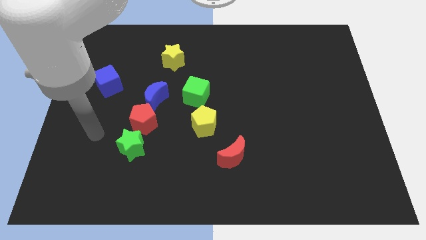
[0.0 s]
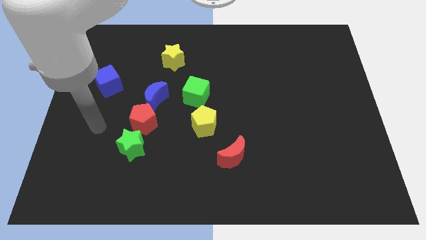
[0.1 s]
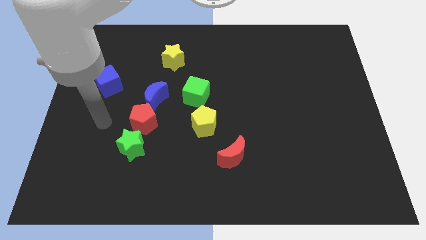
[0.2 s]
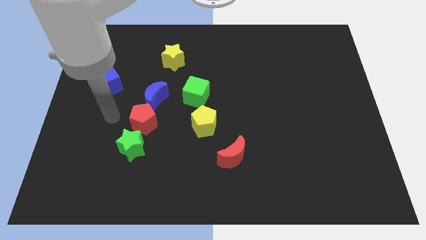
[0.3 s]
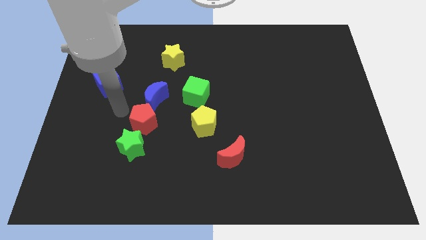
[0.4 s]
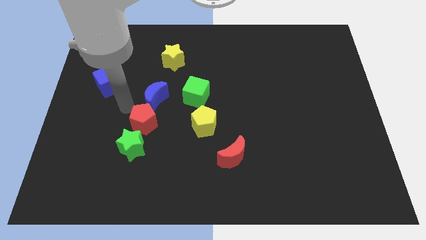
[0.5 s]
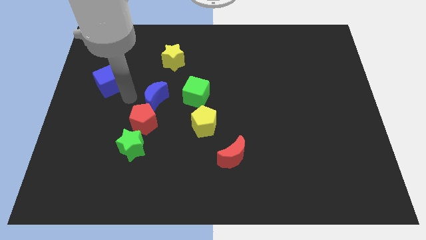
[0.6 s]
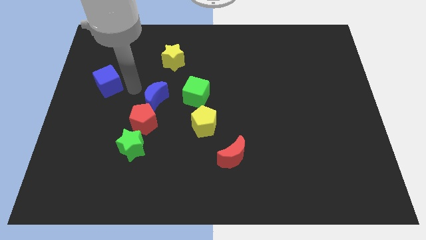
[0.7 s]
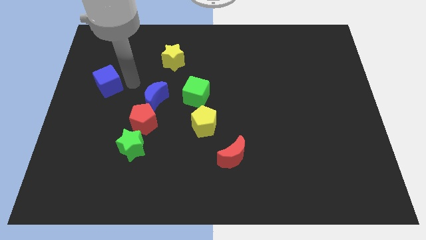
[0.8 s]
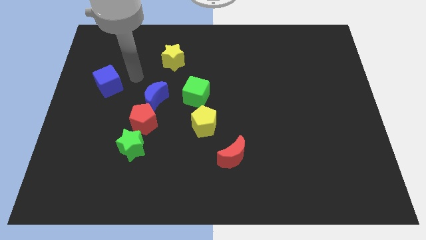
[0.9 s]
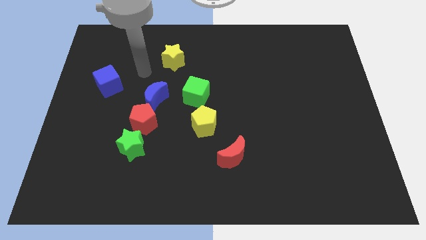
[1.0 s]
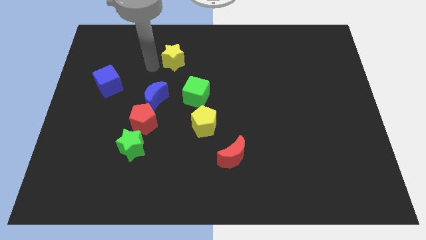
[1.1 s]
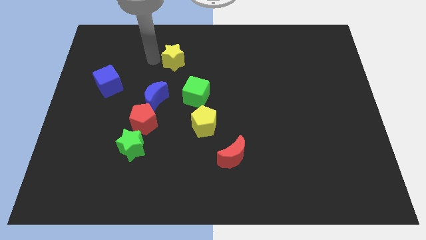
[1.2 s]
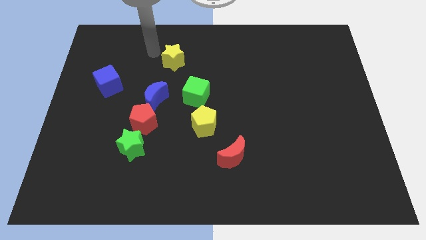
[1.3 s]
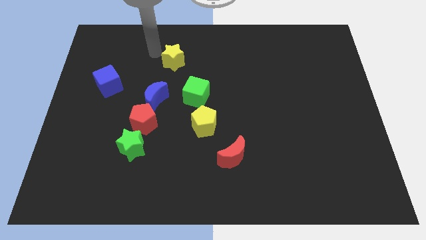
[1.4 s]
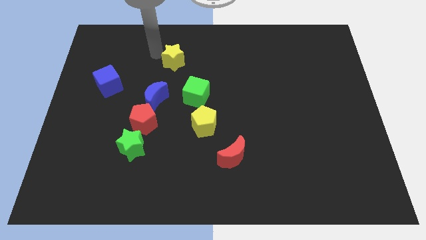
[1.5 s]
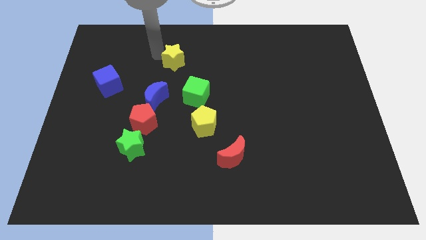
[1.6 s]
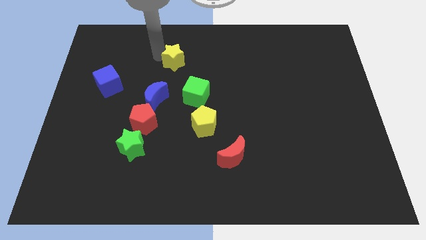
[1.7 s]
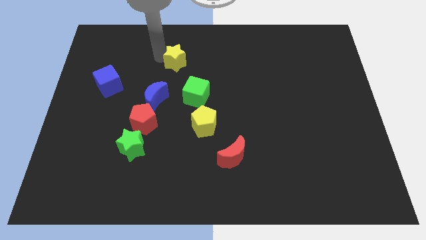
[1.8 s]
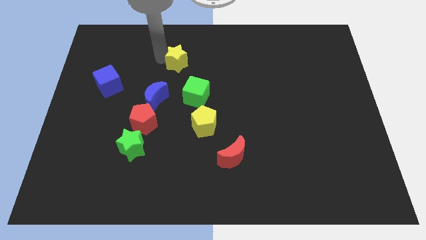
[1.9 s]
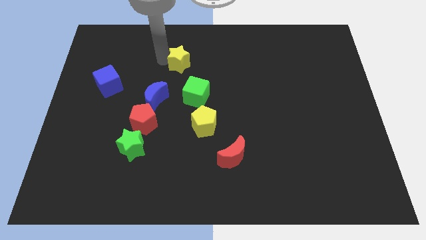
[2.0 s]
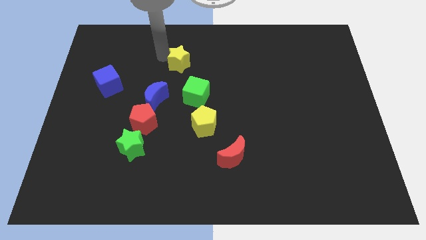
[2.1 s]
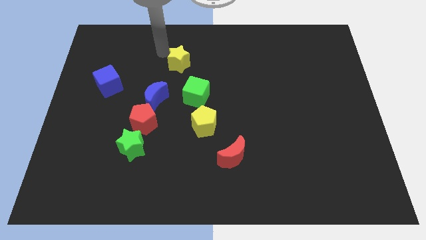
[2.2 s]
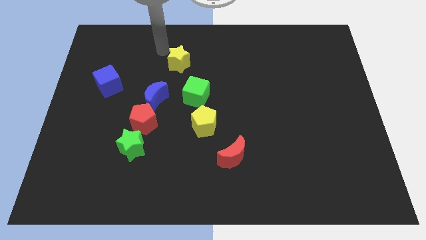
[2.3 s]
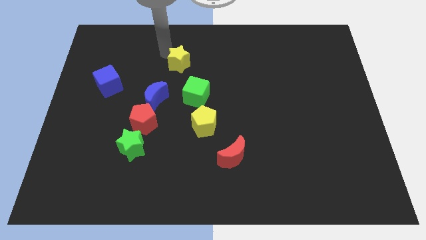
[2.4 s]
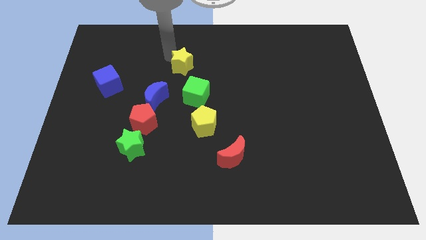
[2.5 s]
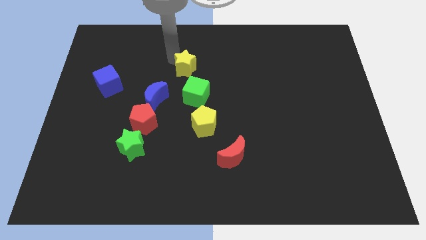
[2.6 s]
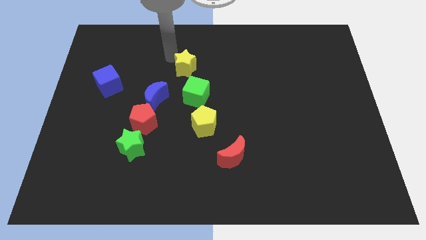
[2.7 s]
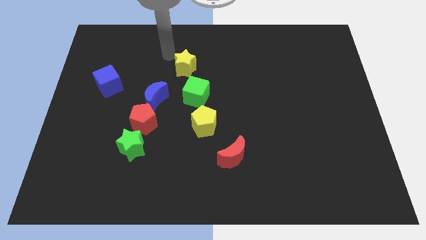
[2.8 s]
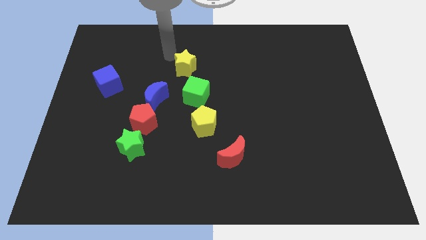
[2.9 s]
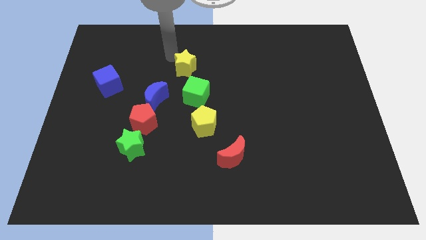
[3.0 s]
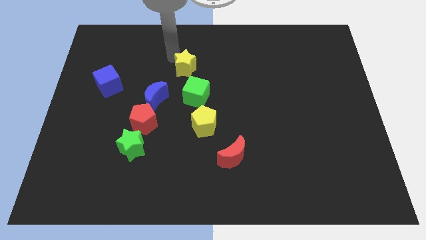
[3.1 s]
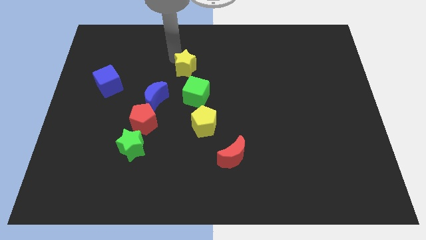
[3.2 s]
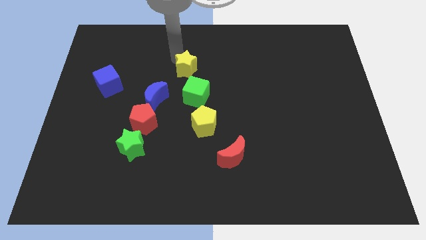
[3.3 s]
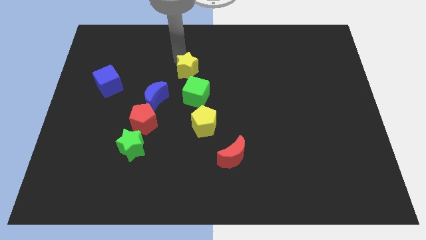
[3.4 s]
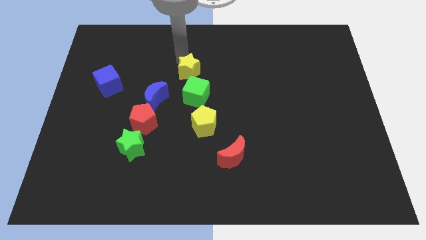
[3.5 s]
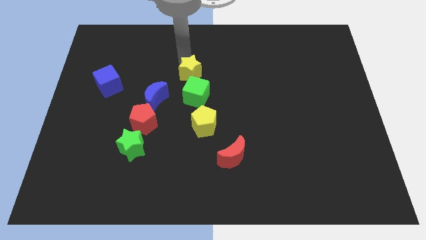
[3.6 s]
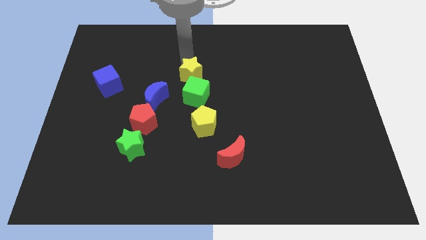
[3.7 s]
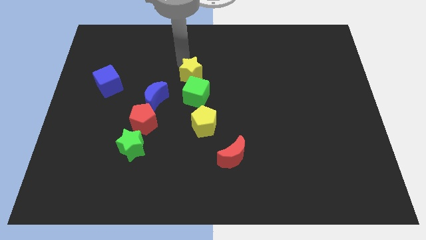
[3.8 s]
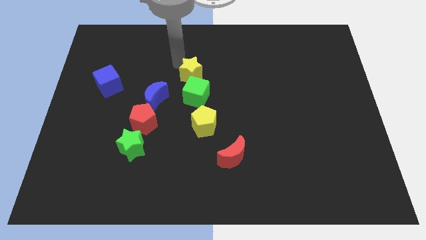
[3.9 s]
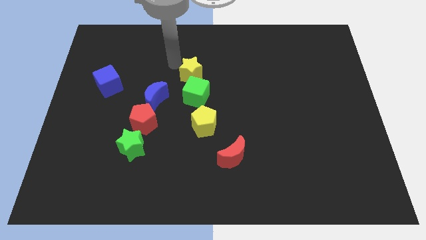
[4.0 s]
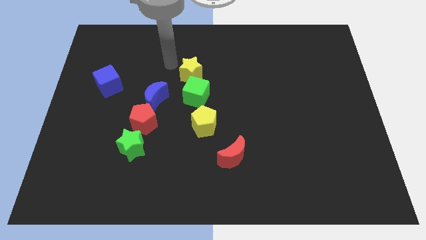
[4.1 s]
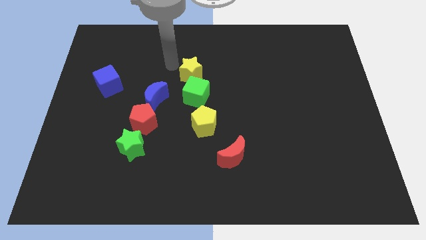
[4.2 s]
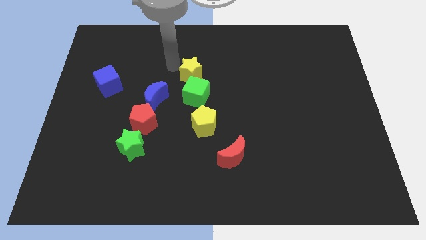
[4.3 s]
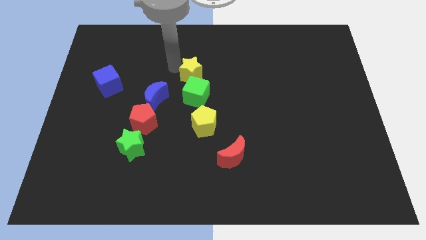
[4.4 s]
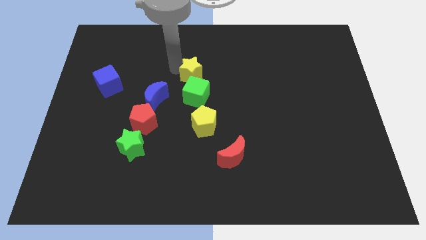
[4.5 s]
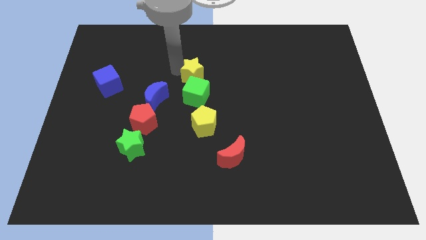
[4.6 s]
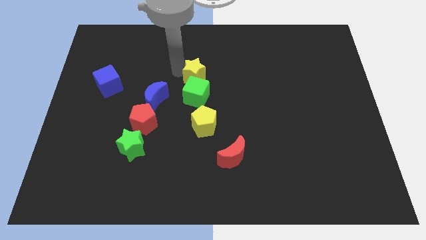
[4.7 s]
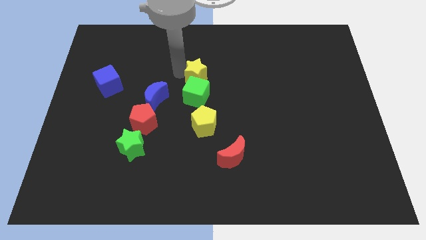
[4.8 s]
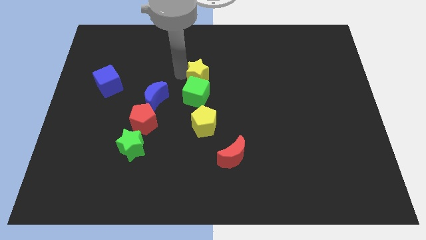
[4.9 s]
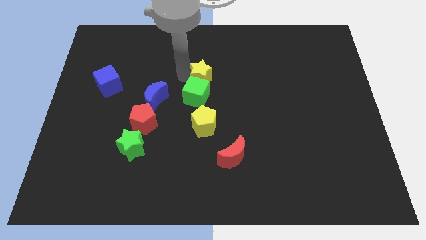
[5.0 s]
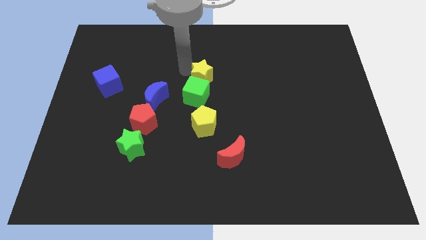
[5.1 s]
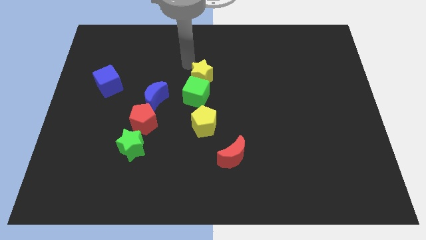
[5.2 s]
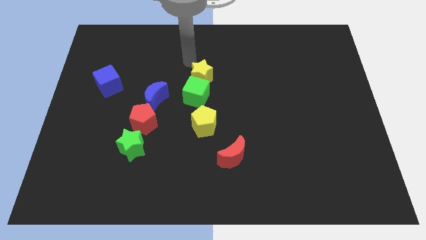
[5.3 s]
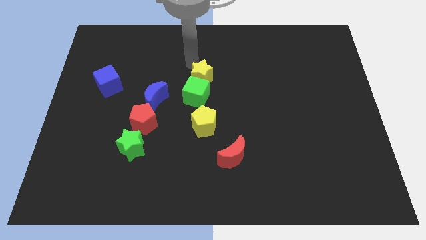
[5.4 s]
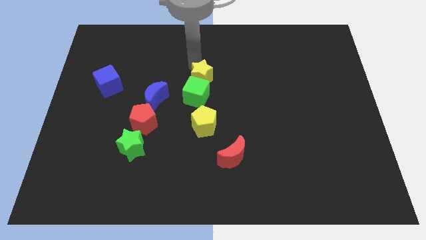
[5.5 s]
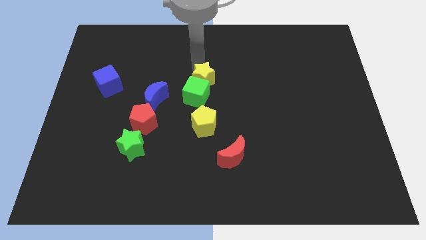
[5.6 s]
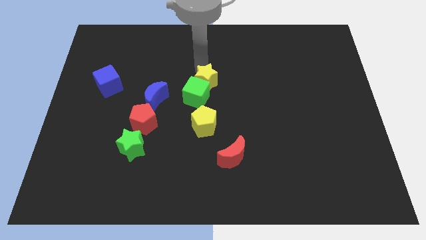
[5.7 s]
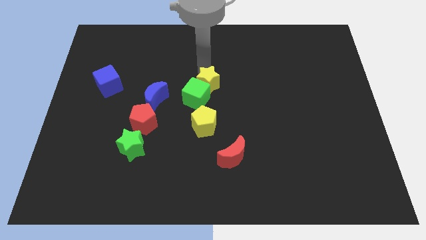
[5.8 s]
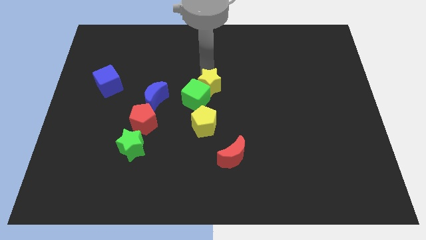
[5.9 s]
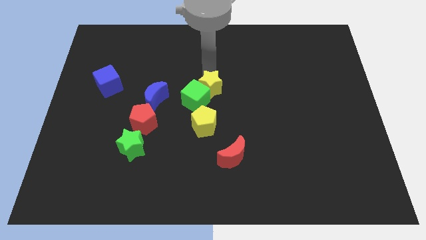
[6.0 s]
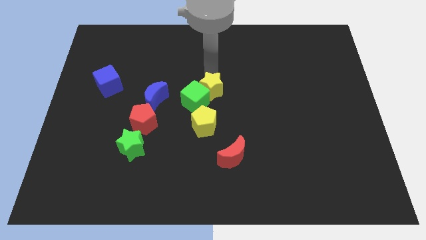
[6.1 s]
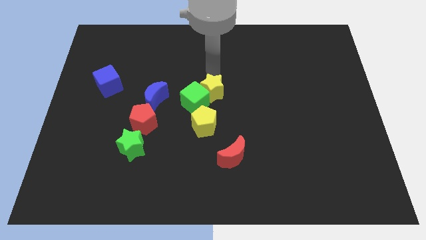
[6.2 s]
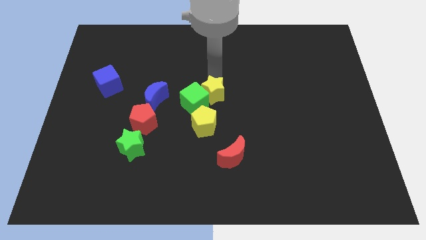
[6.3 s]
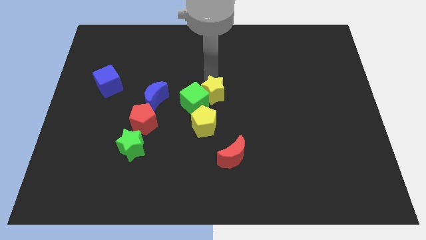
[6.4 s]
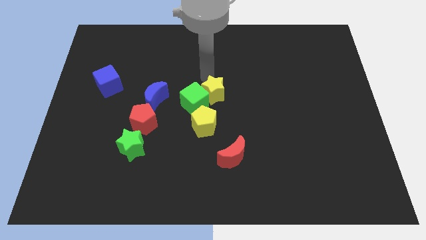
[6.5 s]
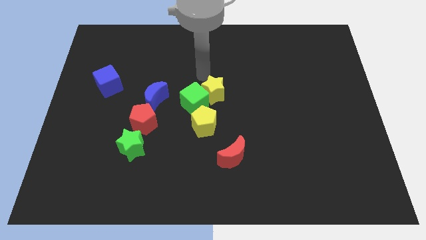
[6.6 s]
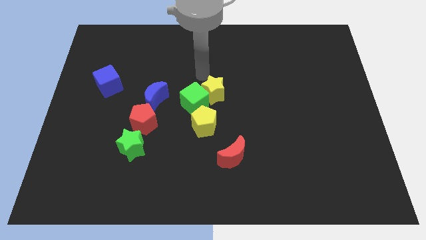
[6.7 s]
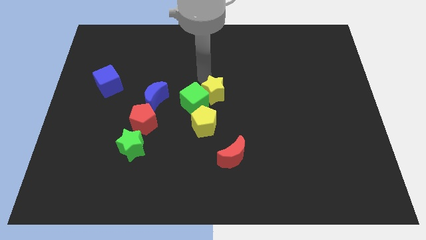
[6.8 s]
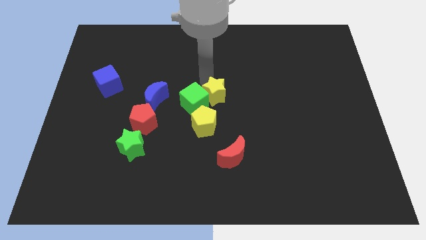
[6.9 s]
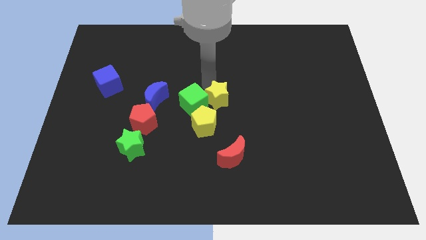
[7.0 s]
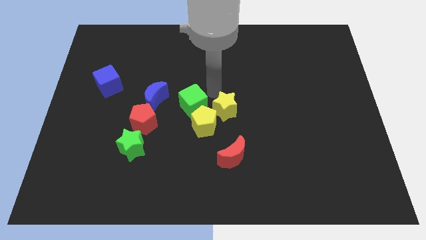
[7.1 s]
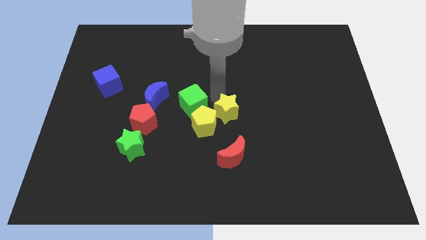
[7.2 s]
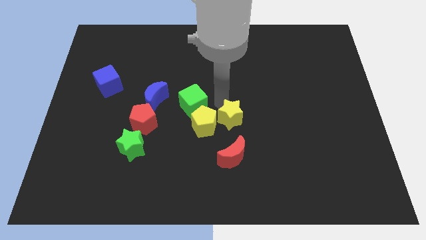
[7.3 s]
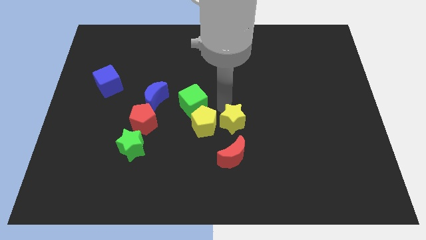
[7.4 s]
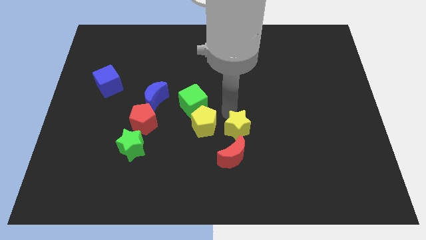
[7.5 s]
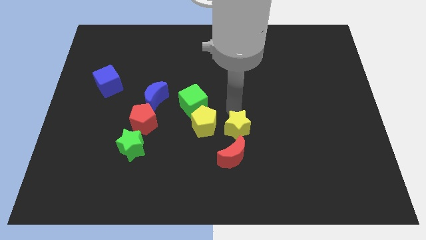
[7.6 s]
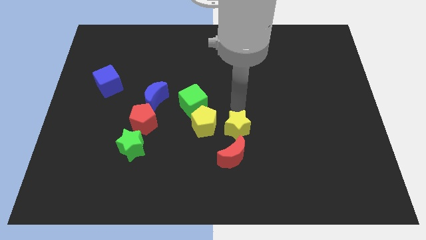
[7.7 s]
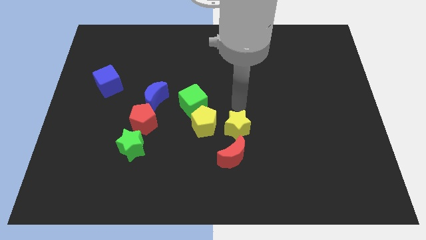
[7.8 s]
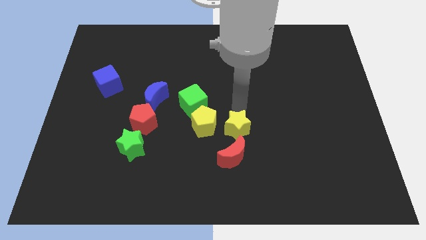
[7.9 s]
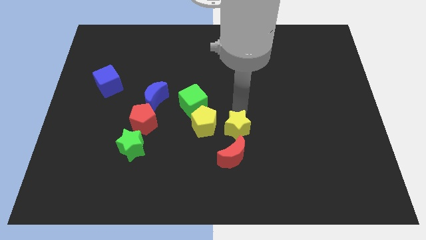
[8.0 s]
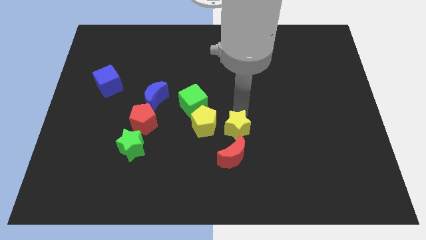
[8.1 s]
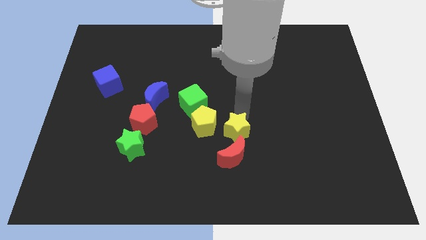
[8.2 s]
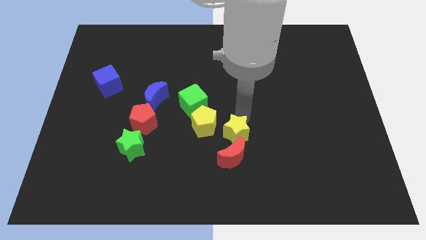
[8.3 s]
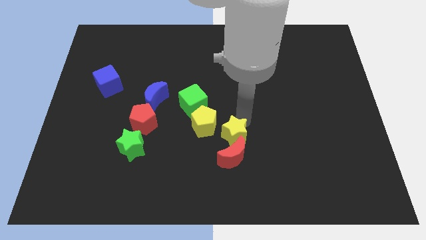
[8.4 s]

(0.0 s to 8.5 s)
put the yellow star towards the red moon
